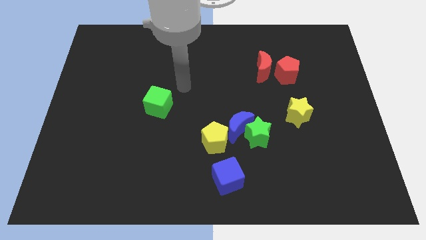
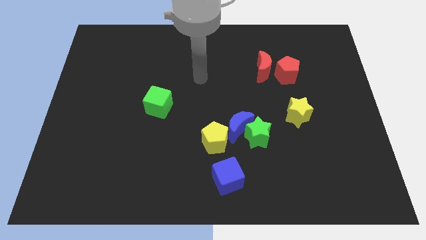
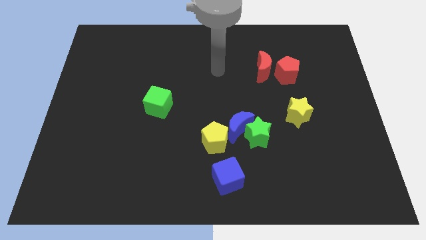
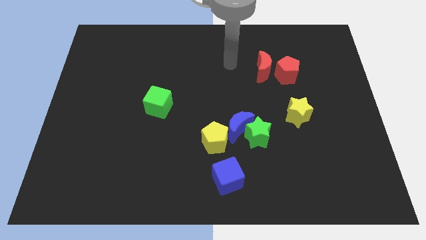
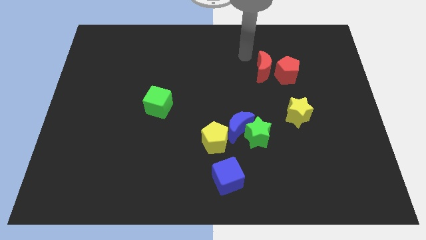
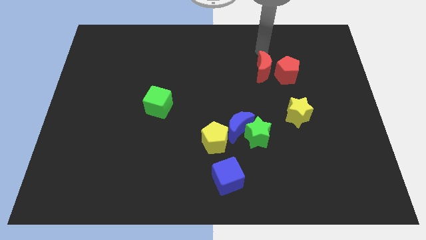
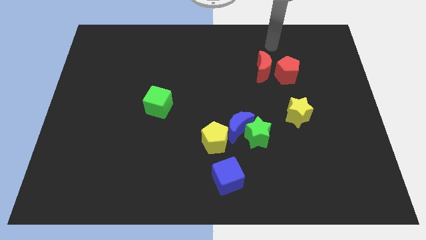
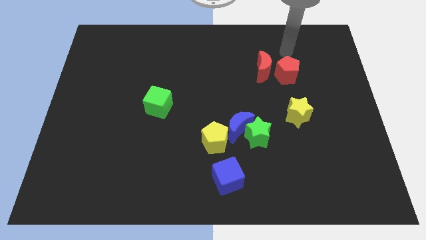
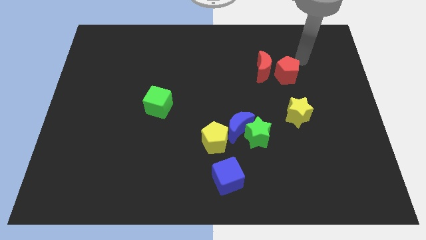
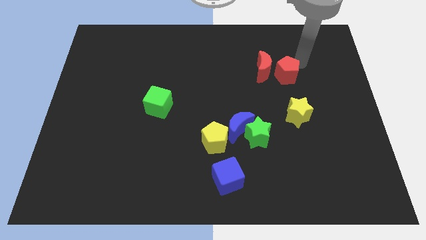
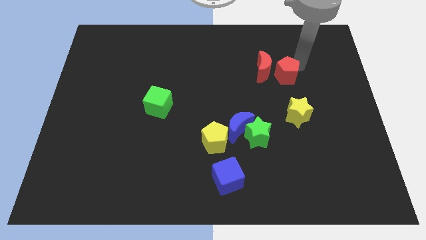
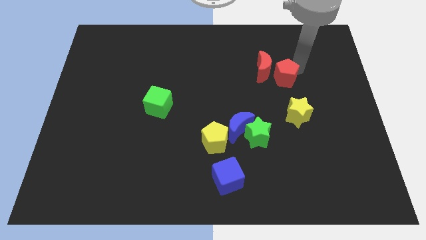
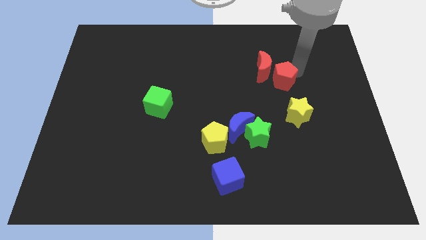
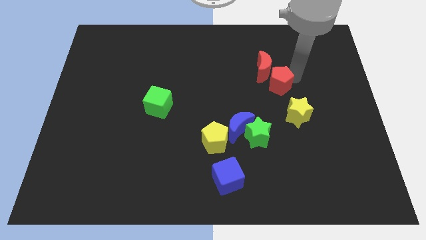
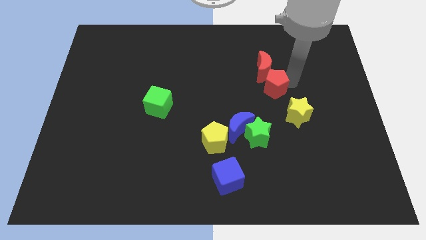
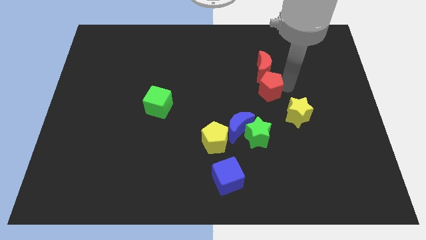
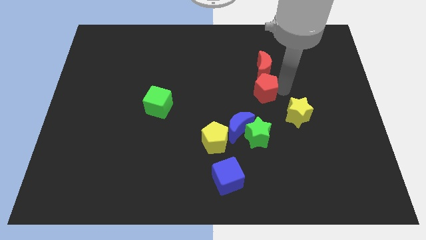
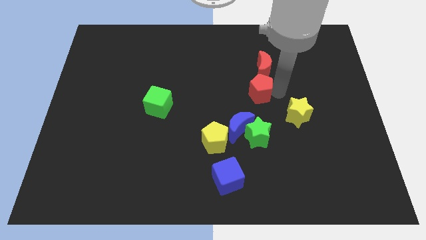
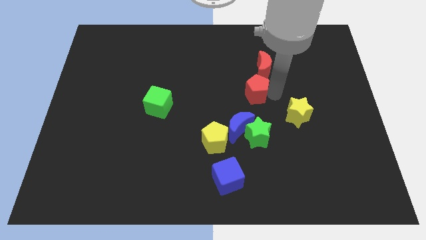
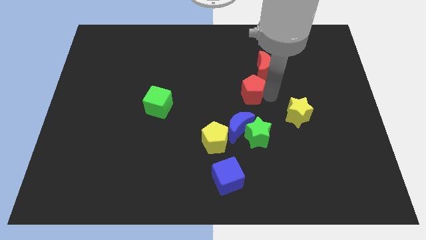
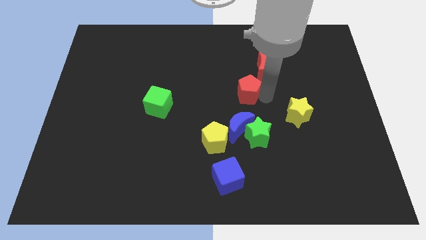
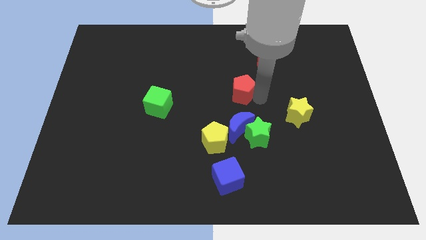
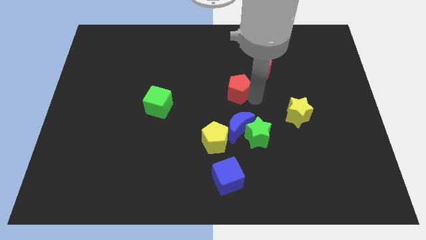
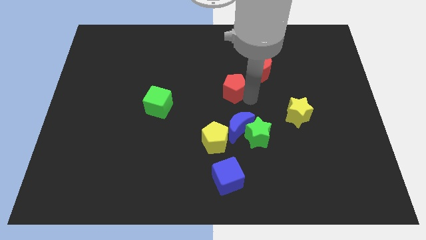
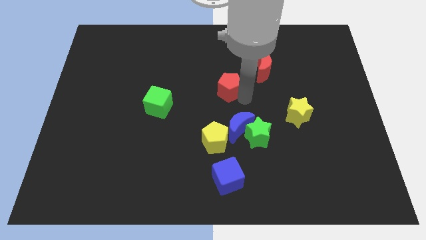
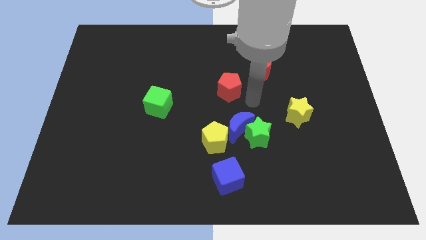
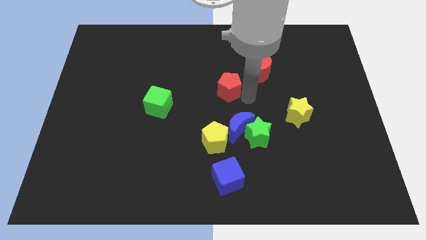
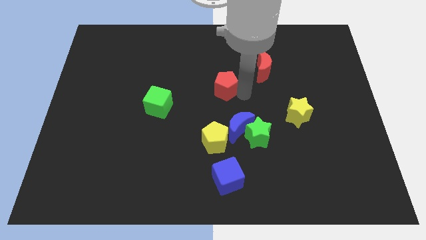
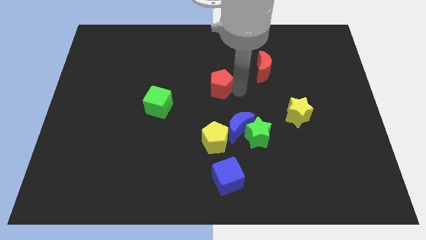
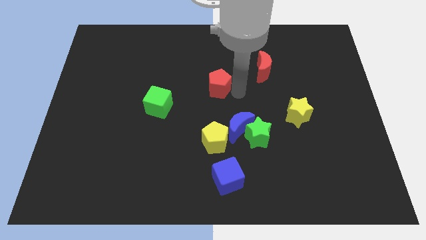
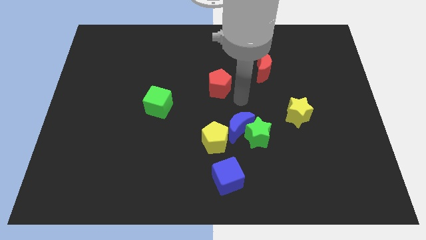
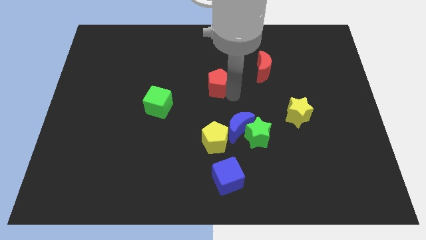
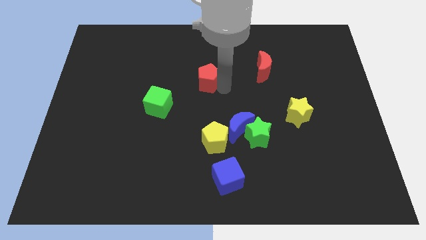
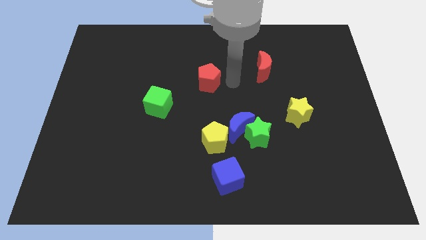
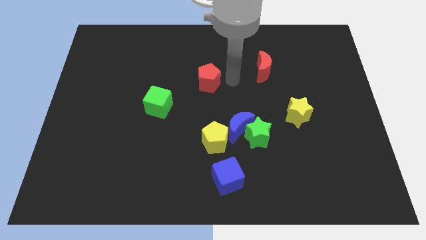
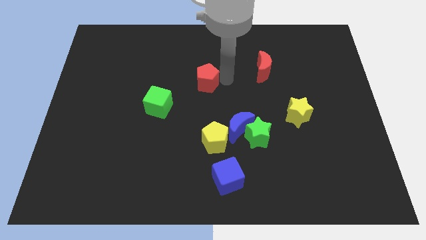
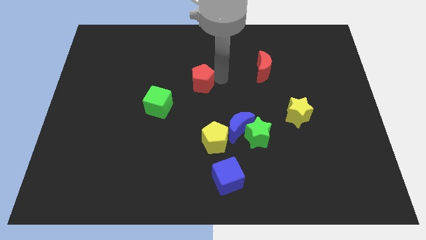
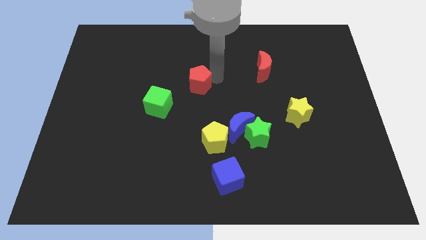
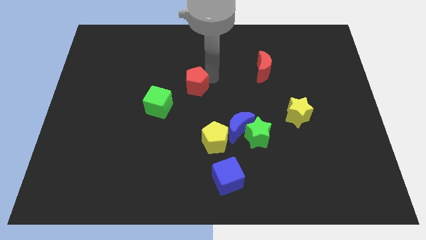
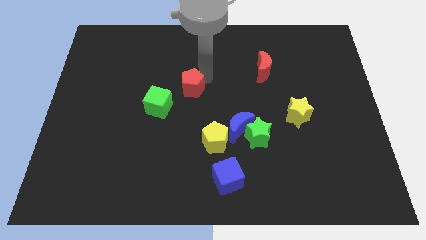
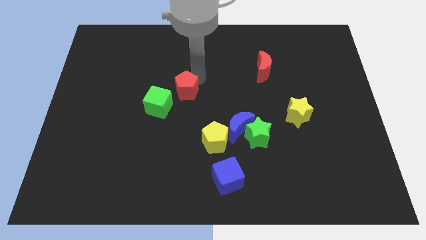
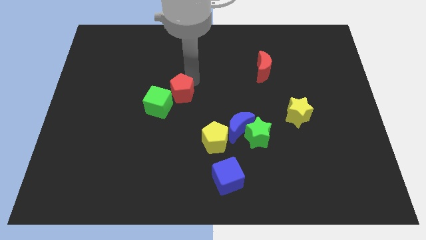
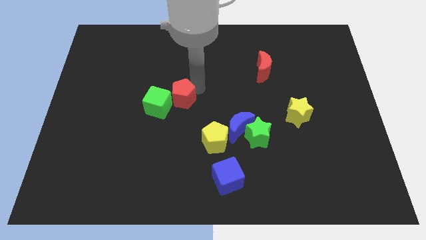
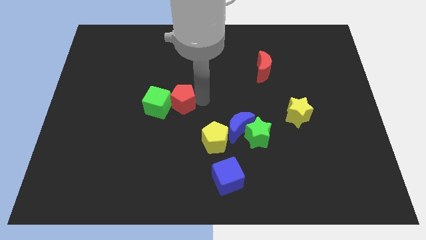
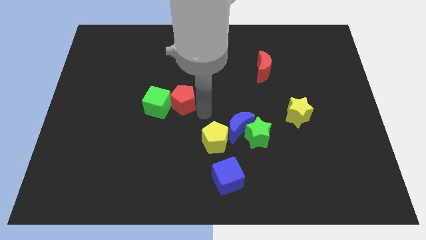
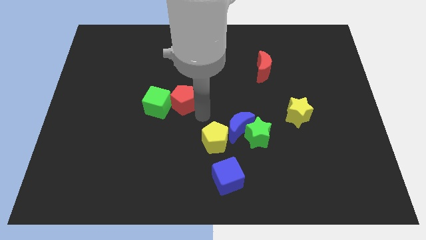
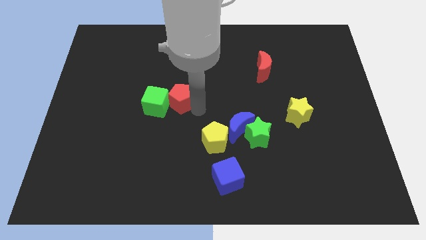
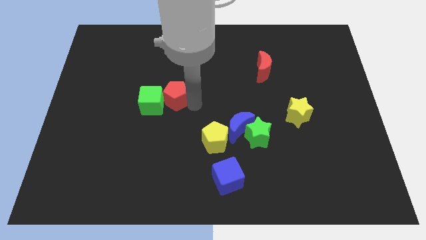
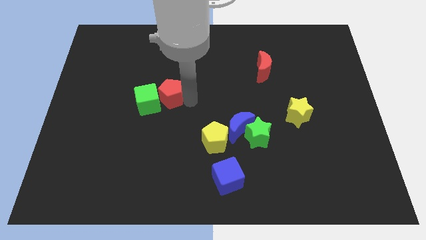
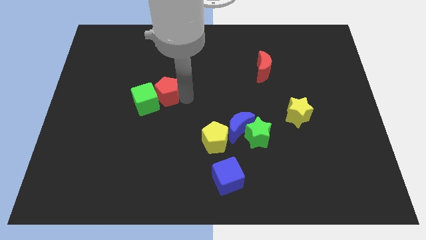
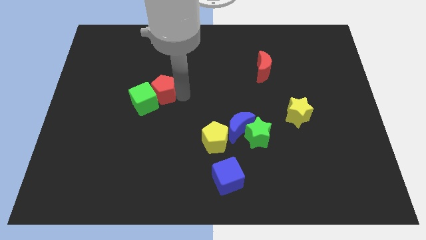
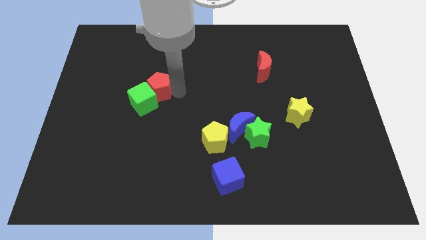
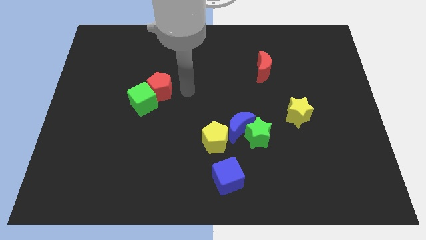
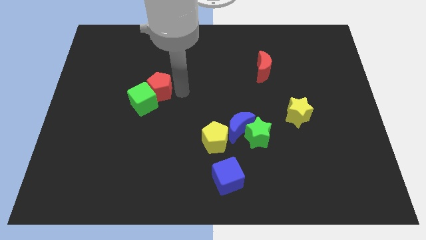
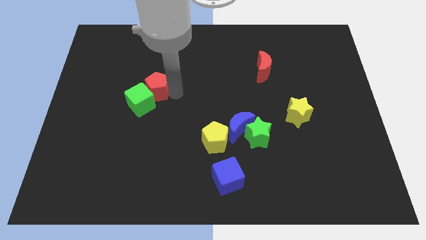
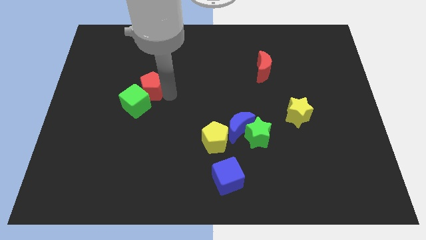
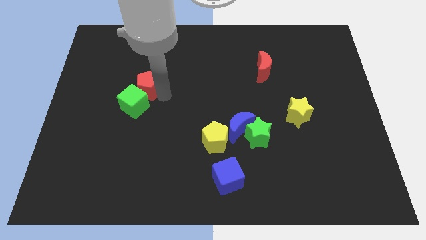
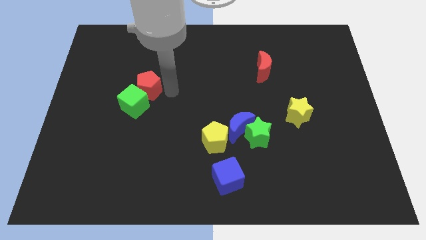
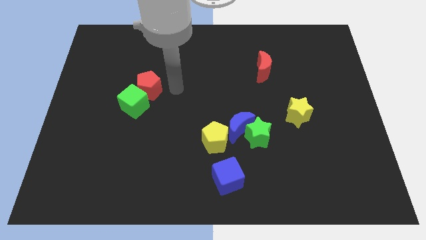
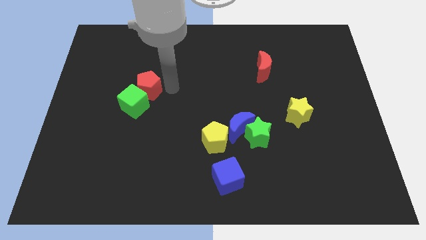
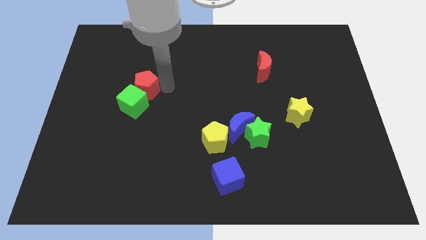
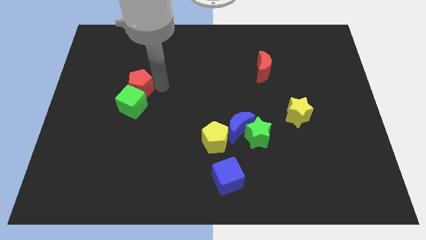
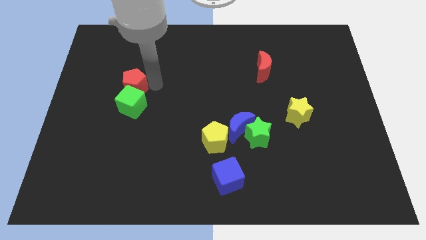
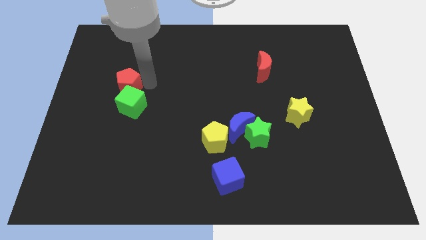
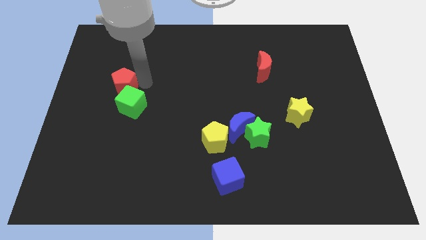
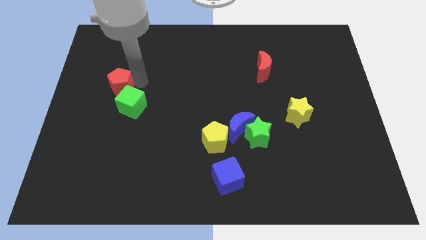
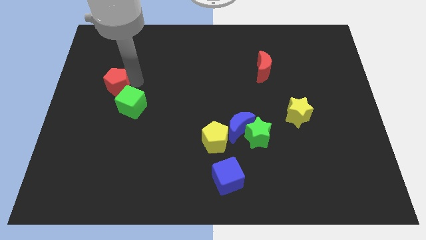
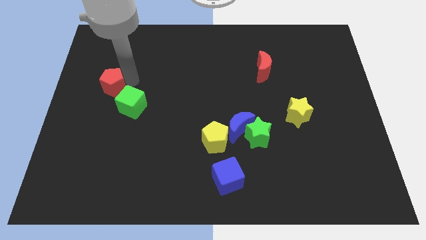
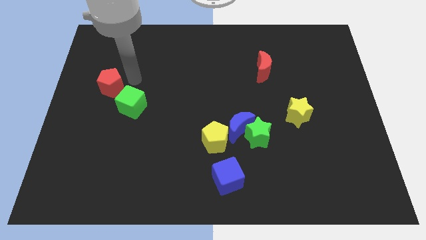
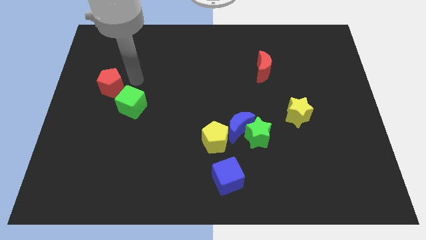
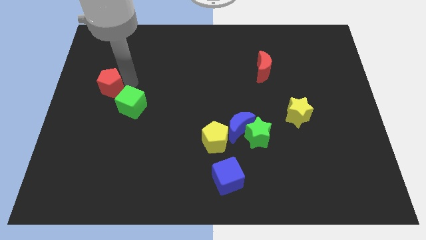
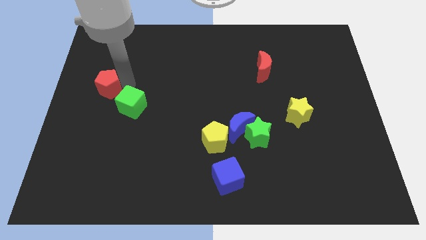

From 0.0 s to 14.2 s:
slide the red pentagon to the center left
